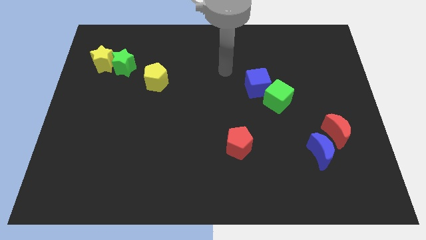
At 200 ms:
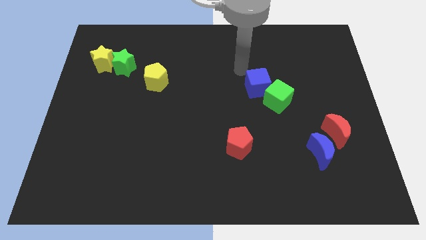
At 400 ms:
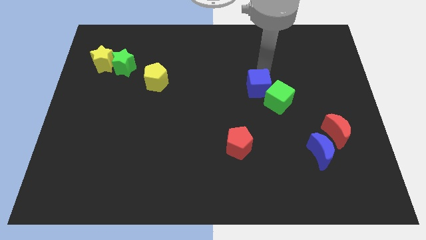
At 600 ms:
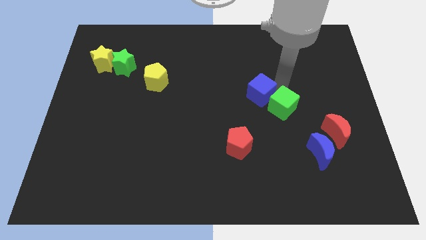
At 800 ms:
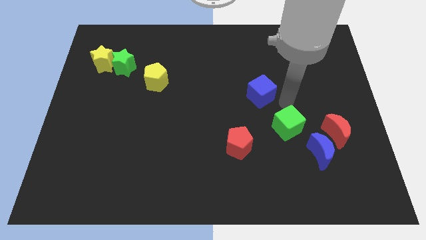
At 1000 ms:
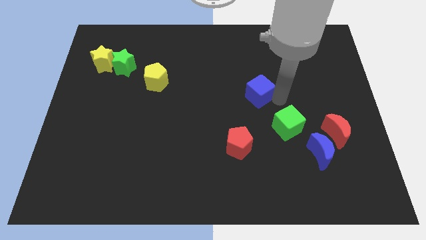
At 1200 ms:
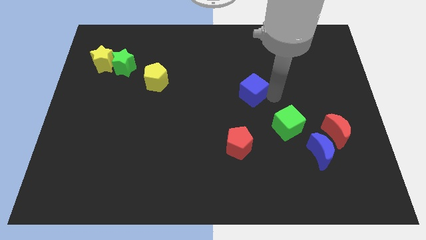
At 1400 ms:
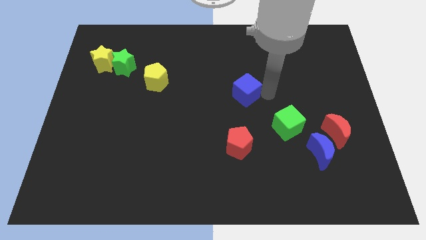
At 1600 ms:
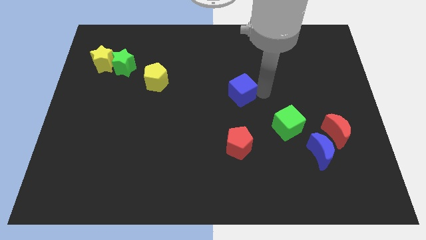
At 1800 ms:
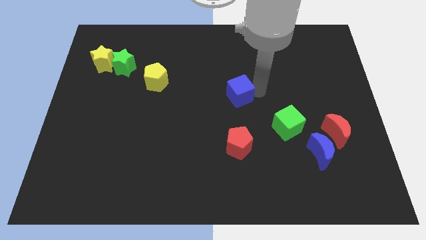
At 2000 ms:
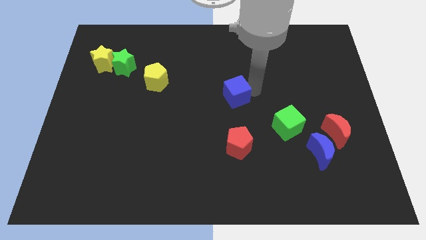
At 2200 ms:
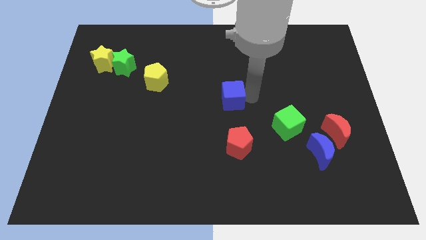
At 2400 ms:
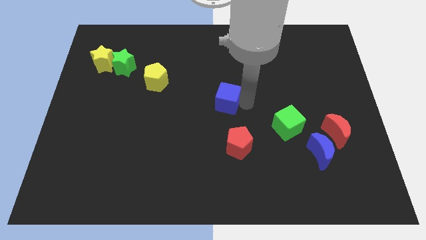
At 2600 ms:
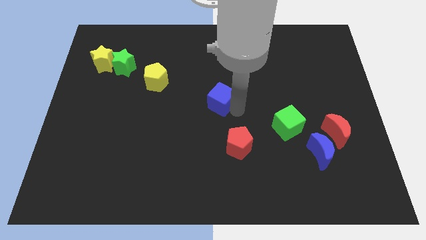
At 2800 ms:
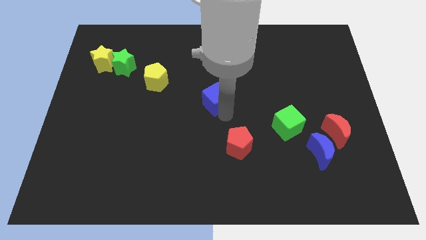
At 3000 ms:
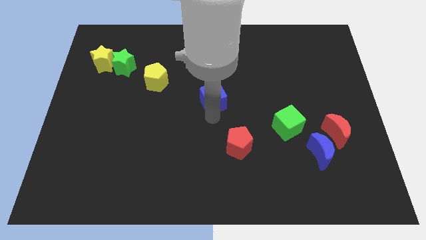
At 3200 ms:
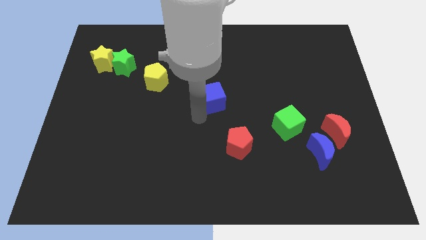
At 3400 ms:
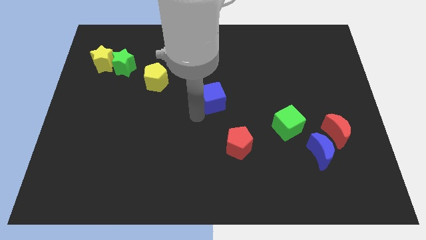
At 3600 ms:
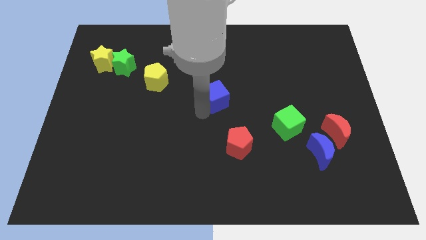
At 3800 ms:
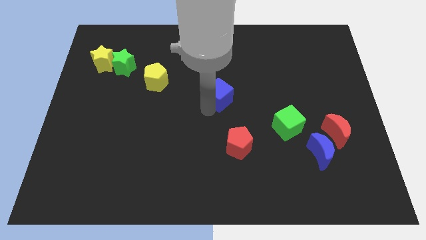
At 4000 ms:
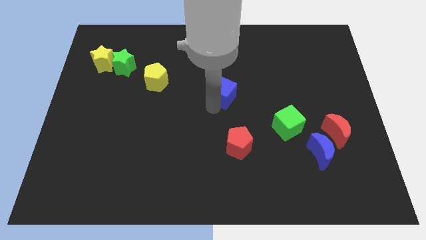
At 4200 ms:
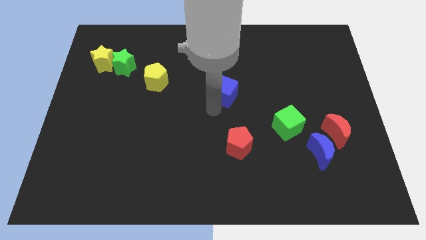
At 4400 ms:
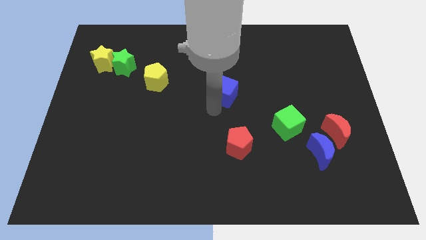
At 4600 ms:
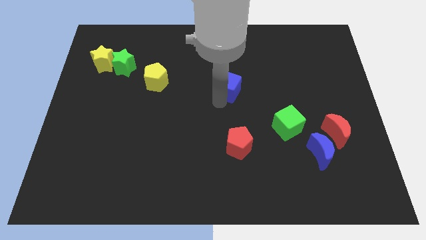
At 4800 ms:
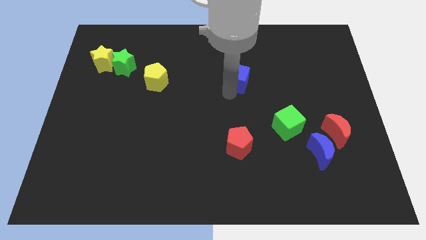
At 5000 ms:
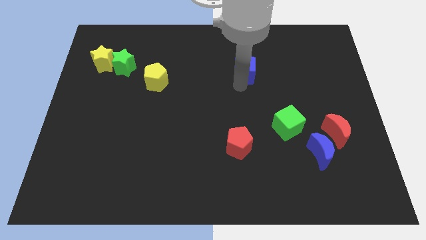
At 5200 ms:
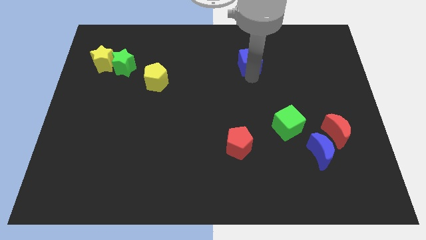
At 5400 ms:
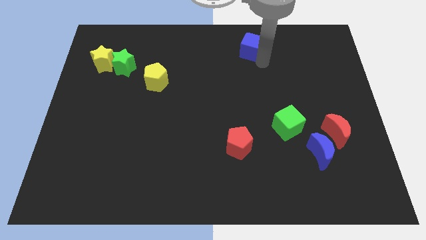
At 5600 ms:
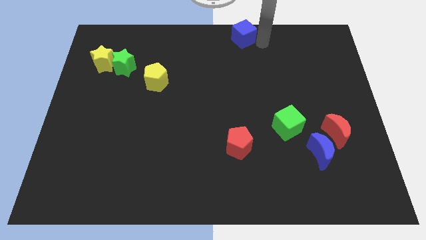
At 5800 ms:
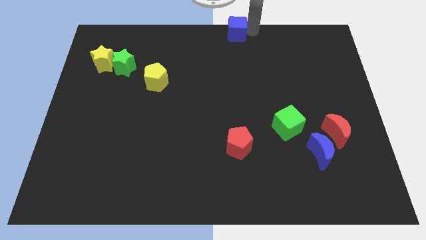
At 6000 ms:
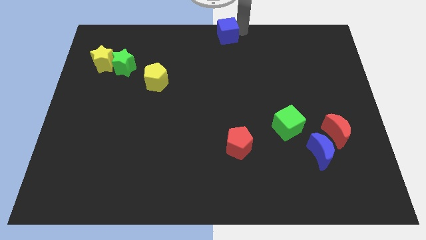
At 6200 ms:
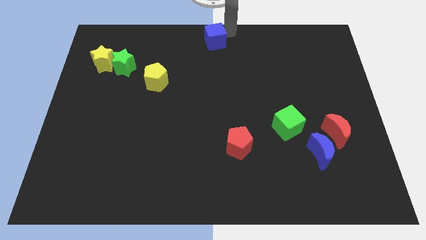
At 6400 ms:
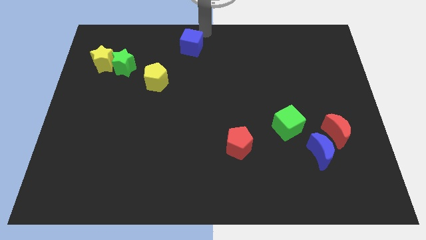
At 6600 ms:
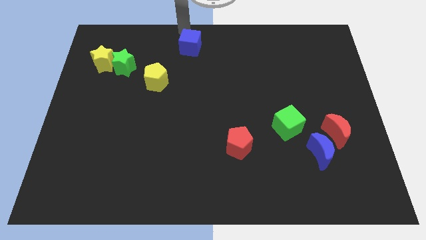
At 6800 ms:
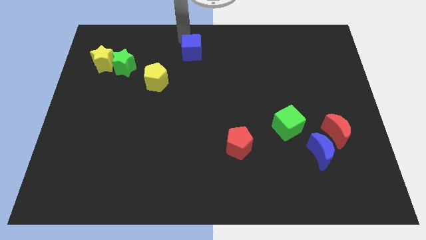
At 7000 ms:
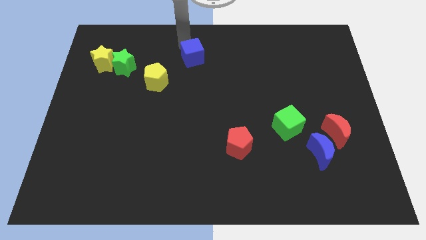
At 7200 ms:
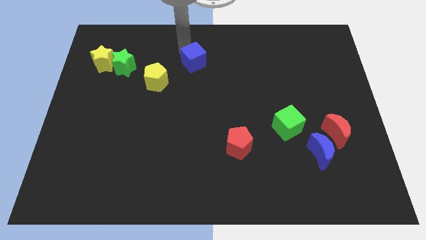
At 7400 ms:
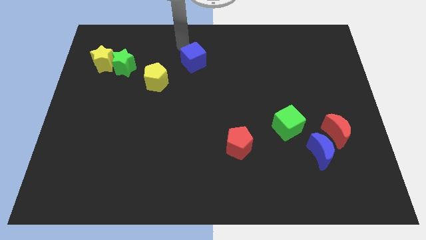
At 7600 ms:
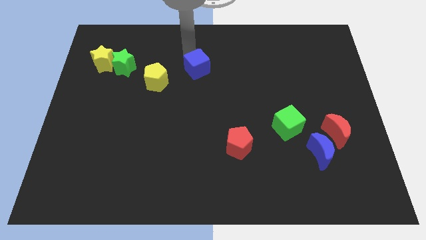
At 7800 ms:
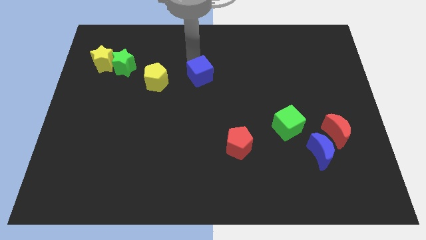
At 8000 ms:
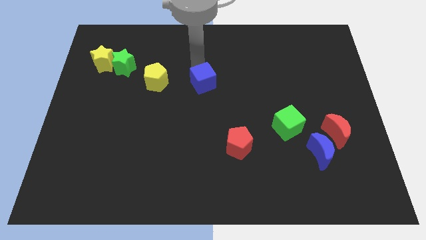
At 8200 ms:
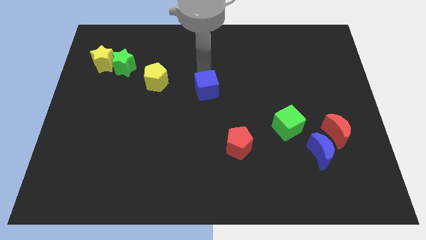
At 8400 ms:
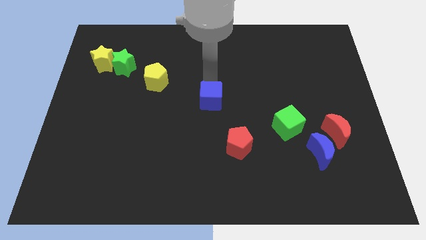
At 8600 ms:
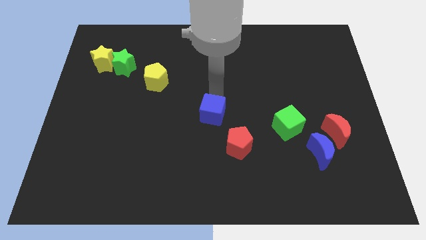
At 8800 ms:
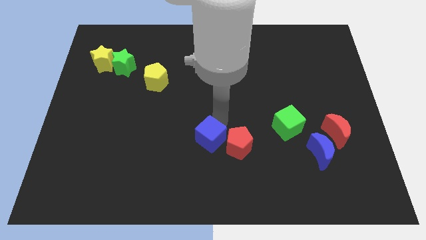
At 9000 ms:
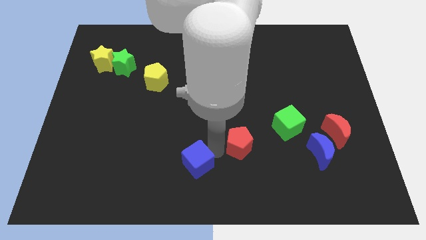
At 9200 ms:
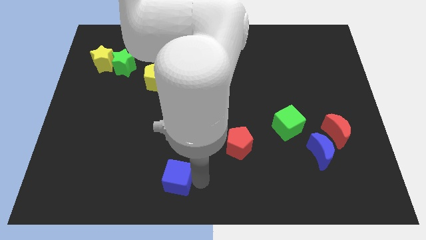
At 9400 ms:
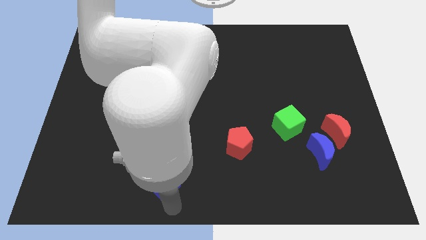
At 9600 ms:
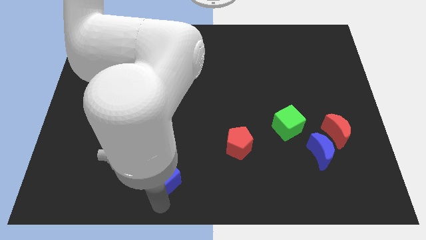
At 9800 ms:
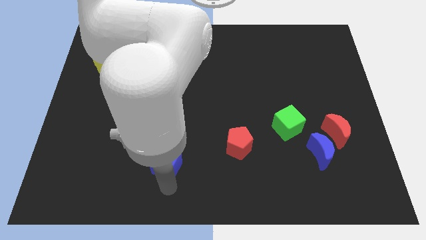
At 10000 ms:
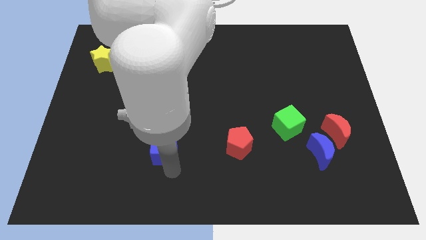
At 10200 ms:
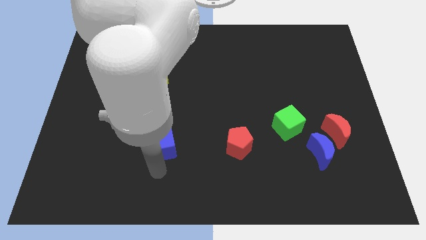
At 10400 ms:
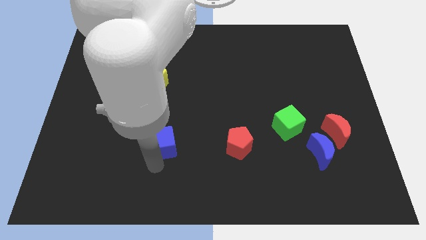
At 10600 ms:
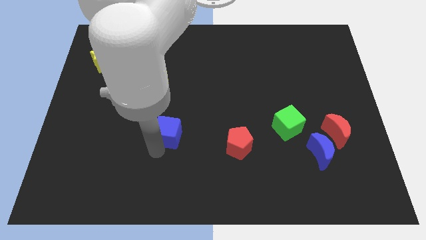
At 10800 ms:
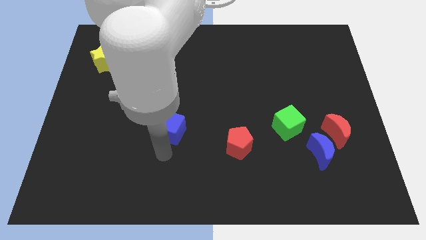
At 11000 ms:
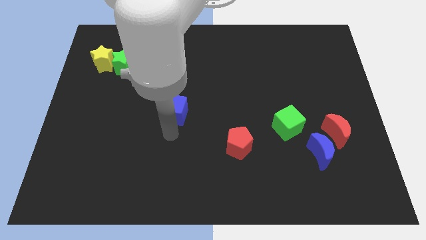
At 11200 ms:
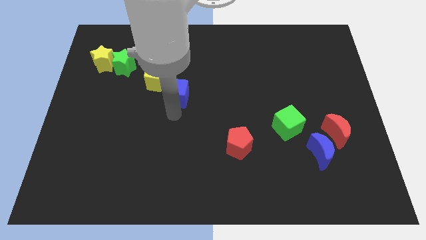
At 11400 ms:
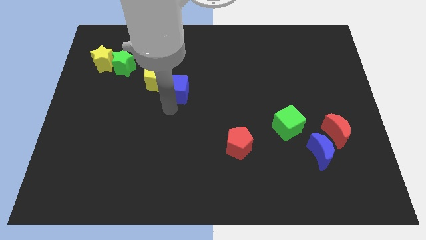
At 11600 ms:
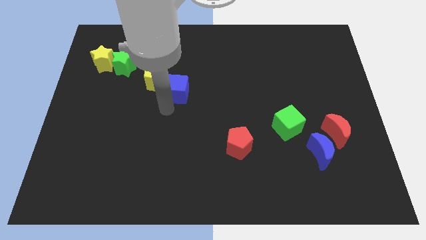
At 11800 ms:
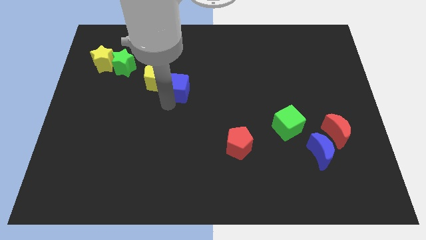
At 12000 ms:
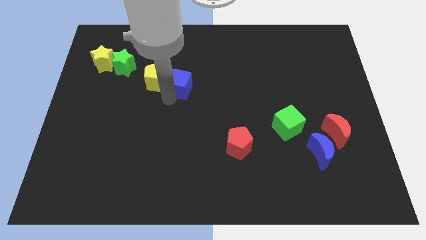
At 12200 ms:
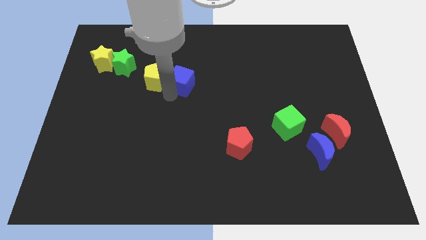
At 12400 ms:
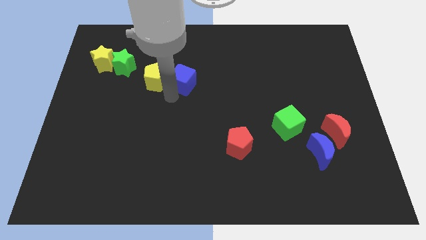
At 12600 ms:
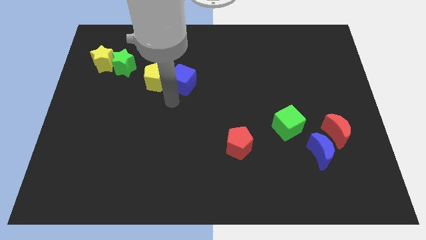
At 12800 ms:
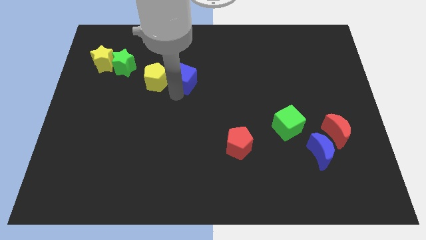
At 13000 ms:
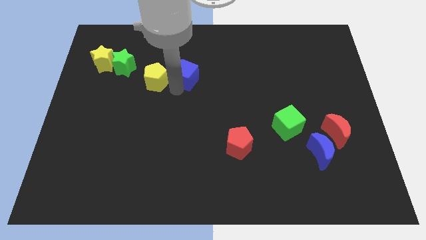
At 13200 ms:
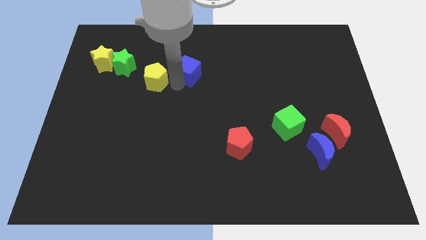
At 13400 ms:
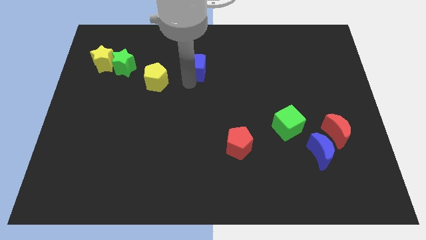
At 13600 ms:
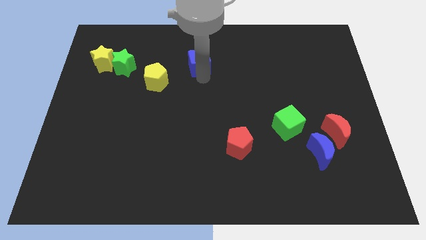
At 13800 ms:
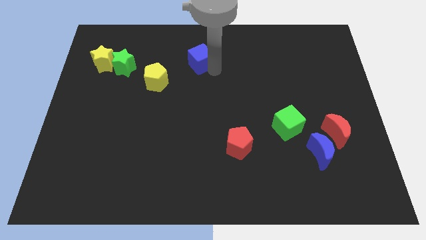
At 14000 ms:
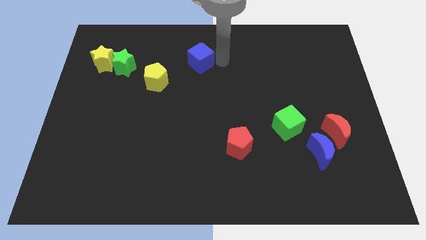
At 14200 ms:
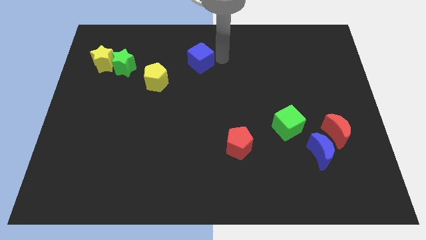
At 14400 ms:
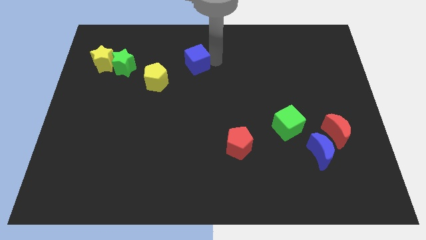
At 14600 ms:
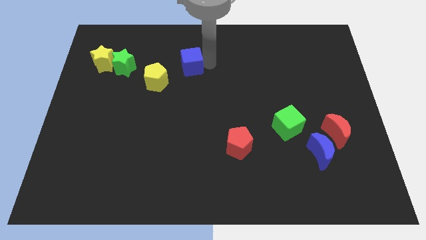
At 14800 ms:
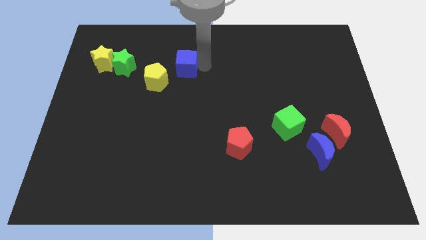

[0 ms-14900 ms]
slide the blue cube to the right of the green star
